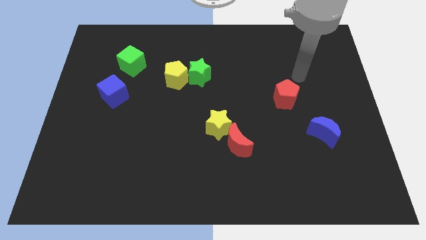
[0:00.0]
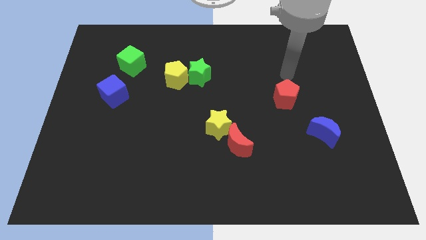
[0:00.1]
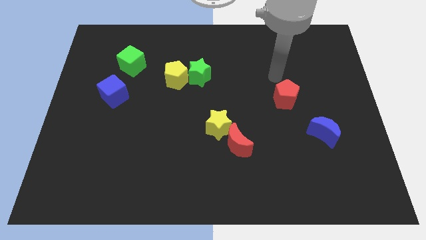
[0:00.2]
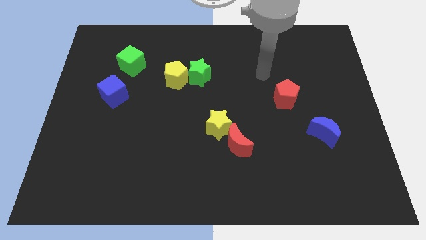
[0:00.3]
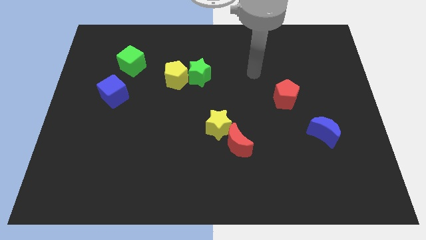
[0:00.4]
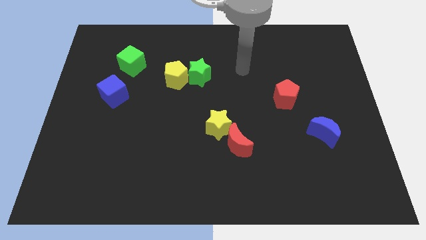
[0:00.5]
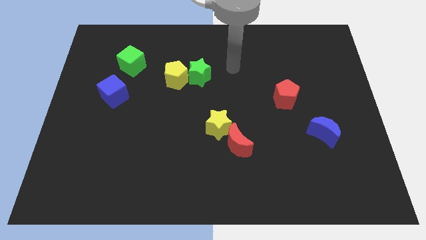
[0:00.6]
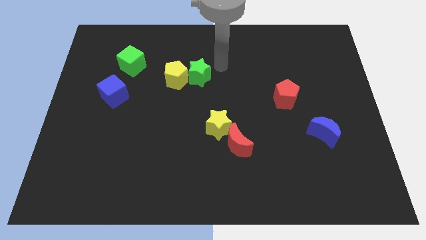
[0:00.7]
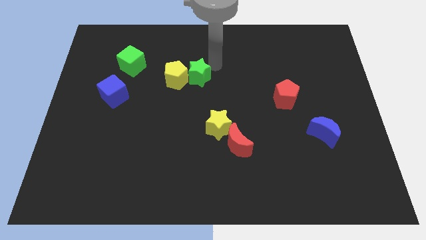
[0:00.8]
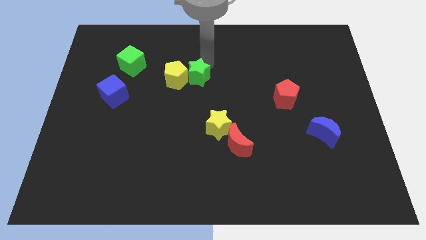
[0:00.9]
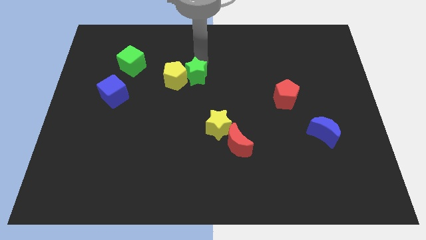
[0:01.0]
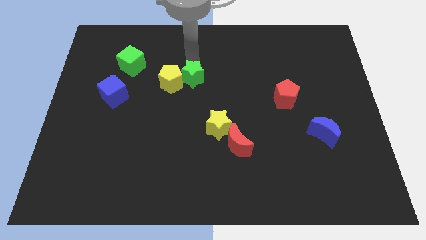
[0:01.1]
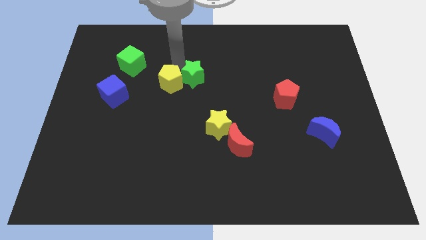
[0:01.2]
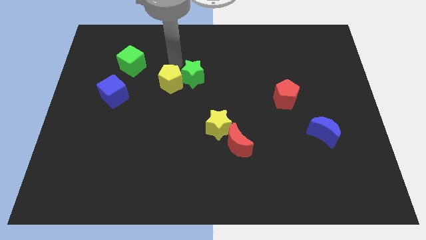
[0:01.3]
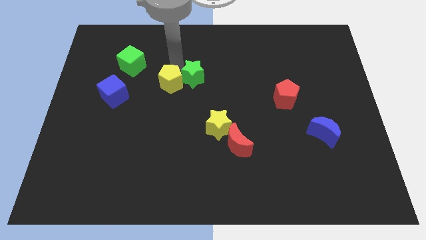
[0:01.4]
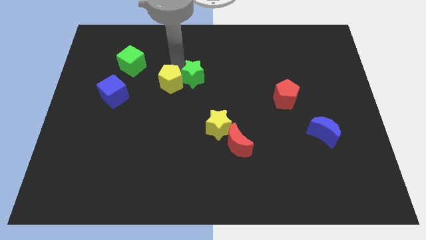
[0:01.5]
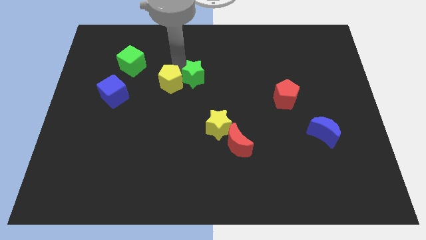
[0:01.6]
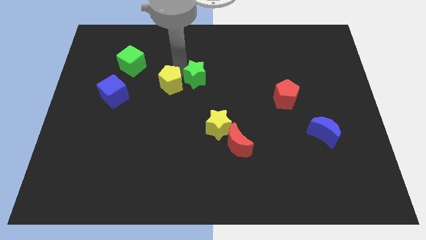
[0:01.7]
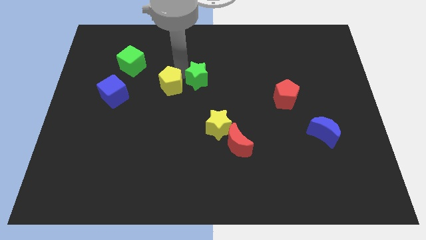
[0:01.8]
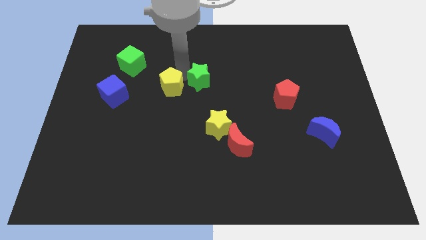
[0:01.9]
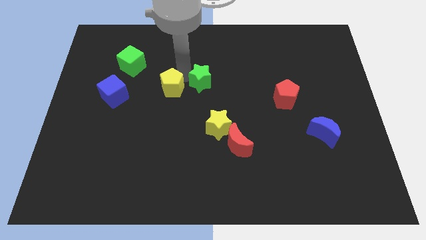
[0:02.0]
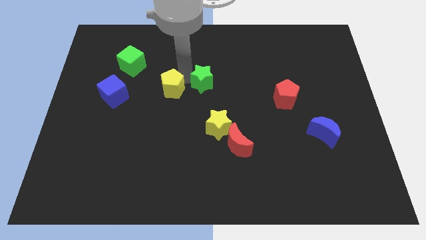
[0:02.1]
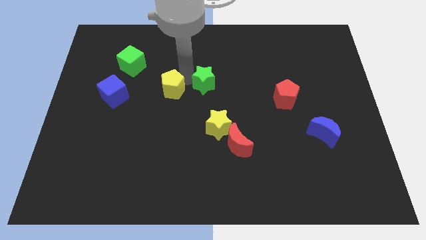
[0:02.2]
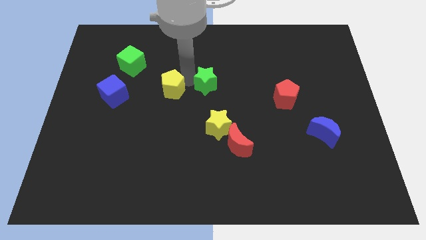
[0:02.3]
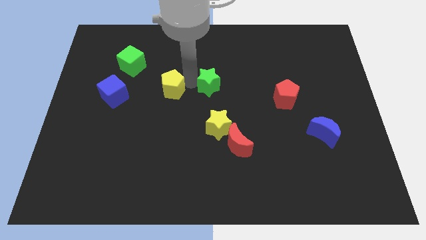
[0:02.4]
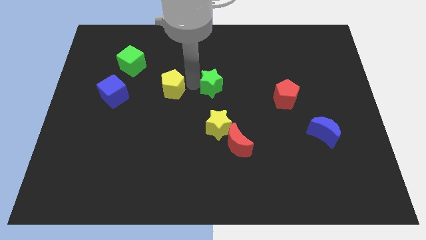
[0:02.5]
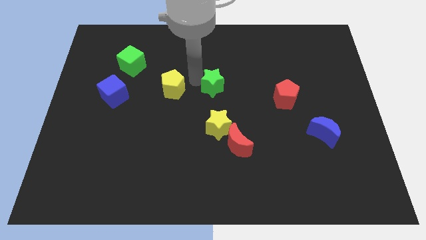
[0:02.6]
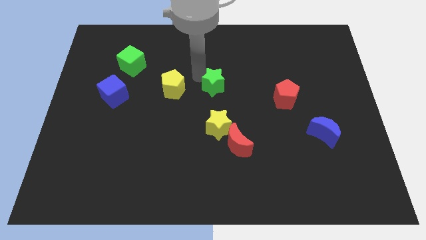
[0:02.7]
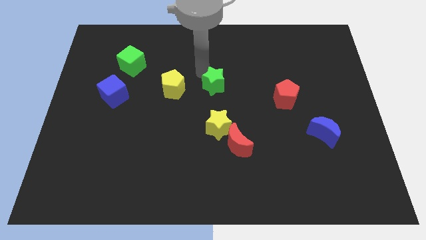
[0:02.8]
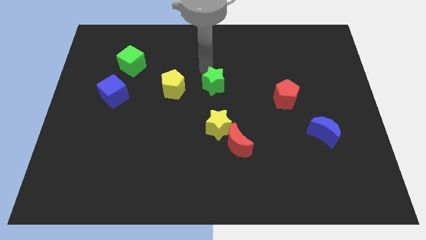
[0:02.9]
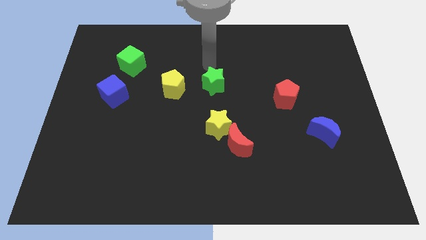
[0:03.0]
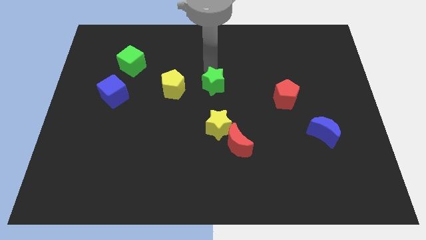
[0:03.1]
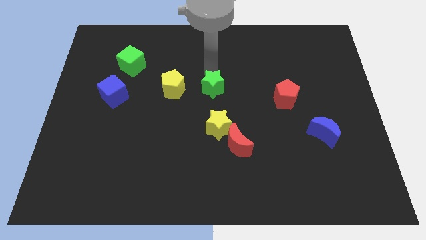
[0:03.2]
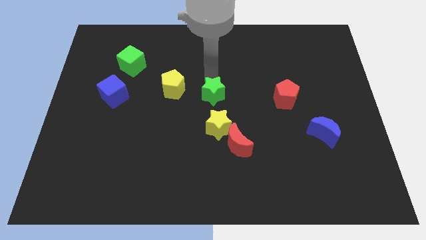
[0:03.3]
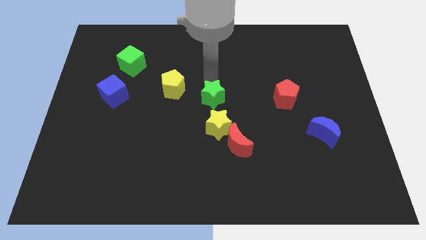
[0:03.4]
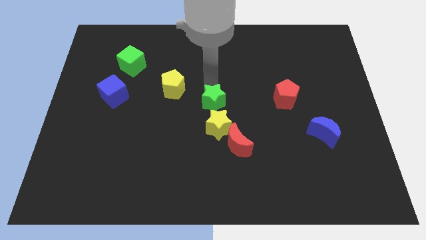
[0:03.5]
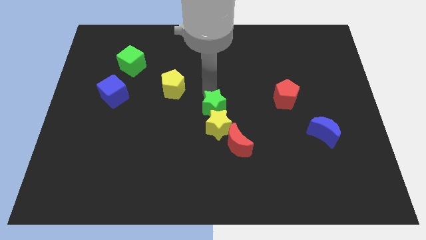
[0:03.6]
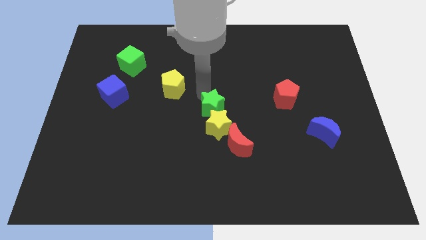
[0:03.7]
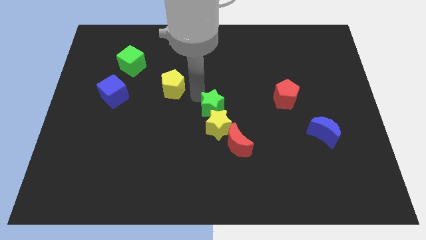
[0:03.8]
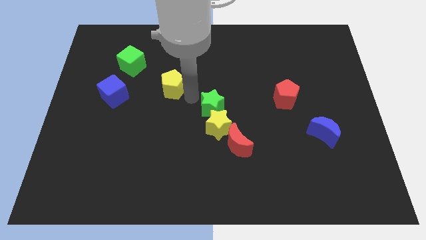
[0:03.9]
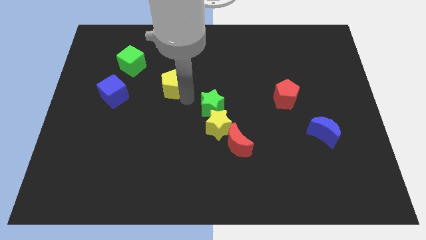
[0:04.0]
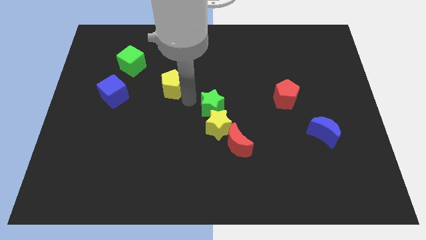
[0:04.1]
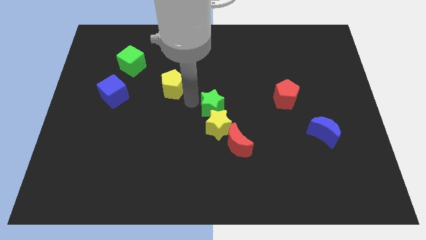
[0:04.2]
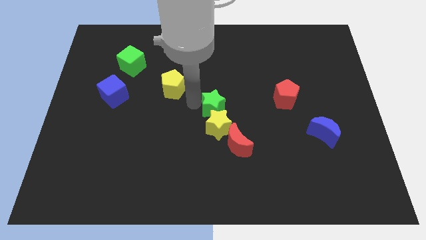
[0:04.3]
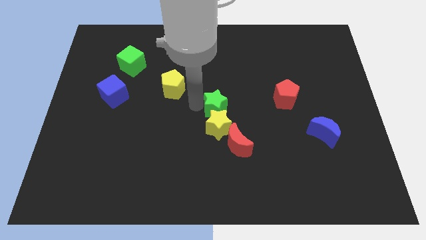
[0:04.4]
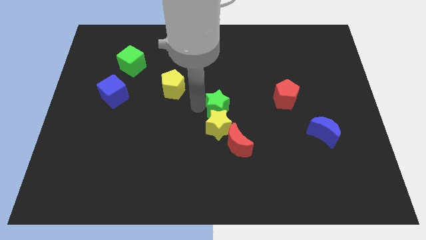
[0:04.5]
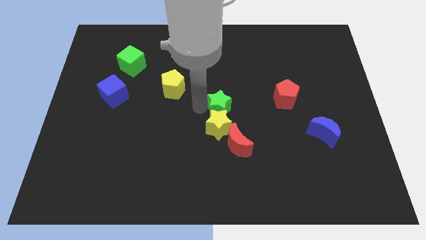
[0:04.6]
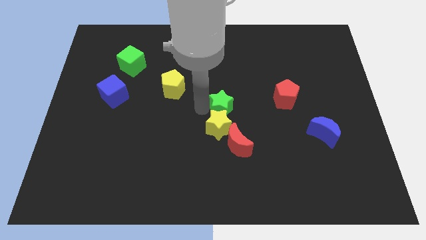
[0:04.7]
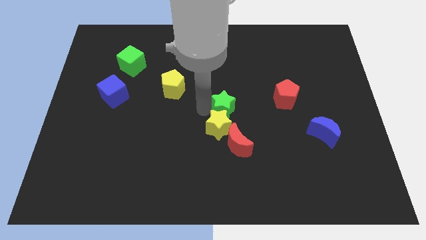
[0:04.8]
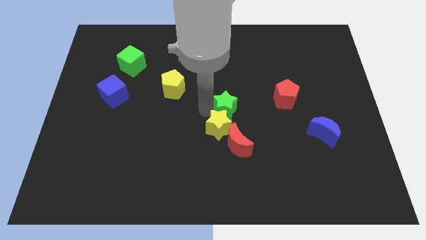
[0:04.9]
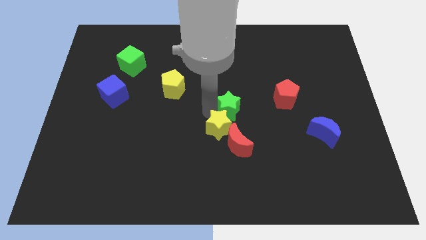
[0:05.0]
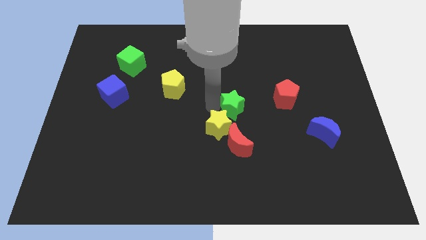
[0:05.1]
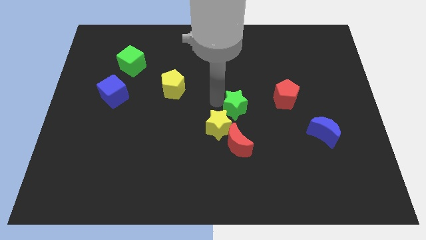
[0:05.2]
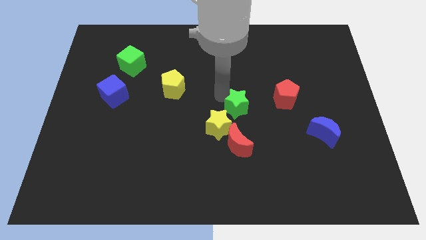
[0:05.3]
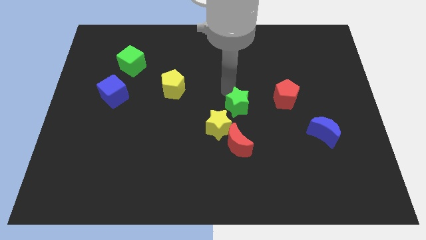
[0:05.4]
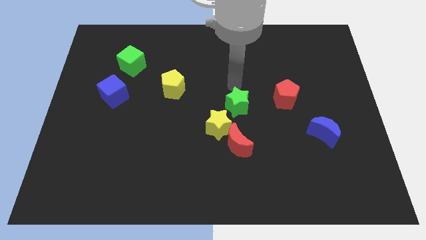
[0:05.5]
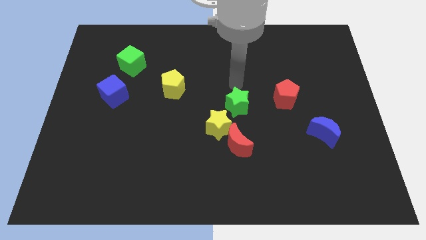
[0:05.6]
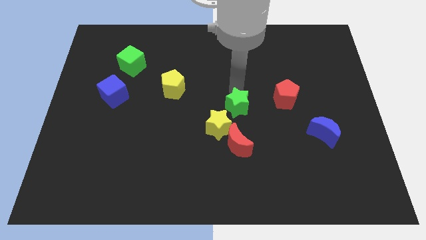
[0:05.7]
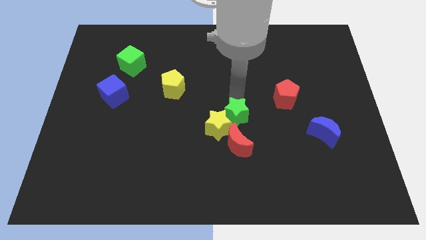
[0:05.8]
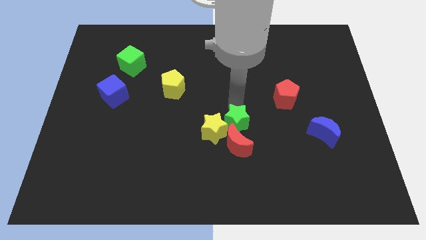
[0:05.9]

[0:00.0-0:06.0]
push the green star towards the red moon

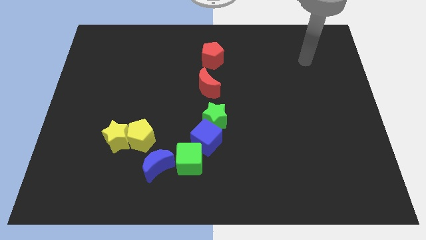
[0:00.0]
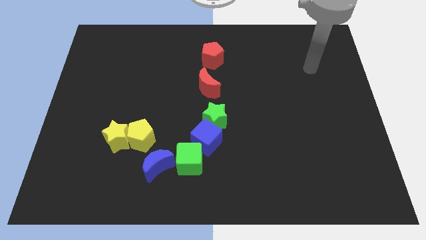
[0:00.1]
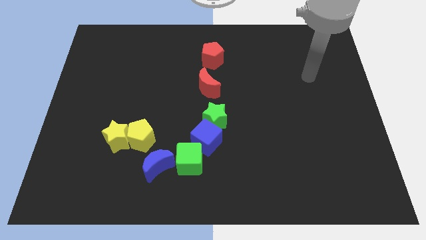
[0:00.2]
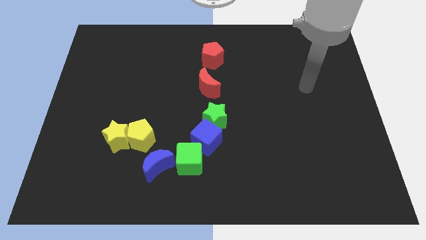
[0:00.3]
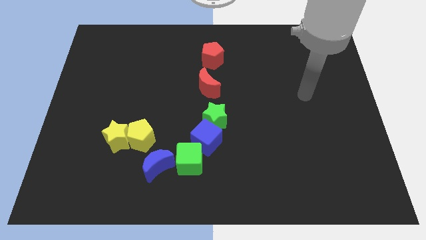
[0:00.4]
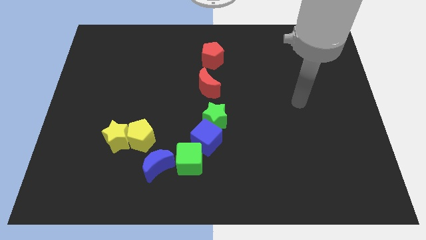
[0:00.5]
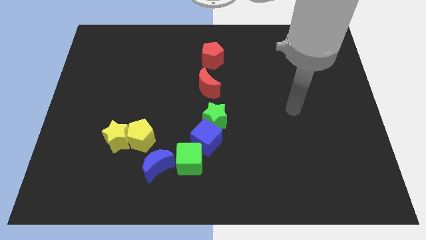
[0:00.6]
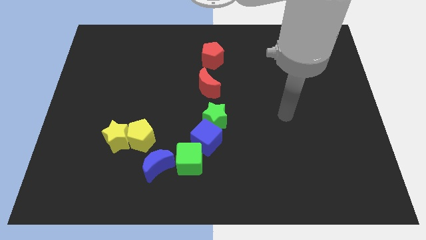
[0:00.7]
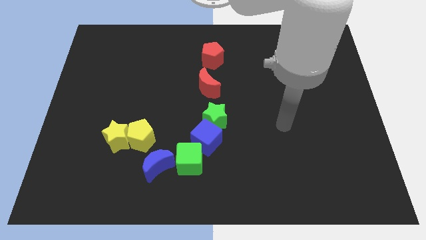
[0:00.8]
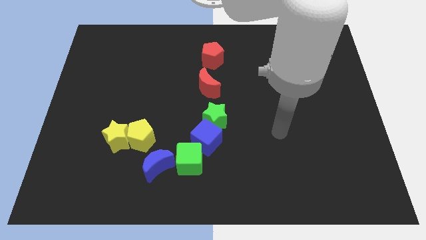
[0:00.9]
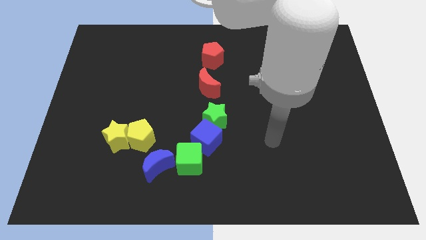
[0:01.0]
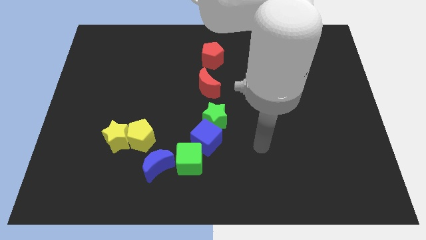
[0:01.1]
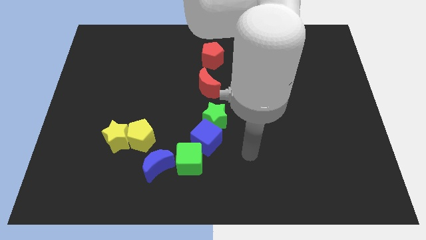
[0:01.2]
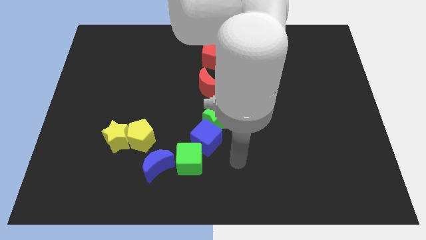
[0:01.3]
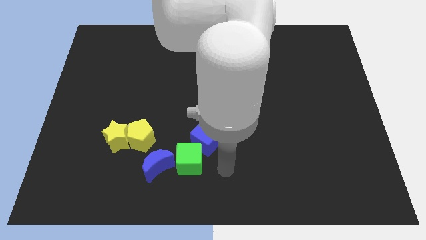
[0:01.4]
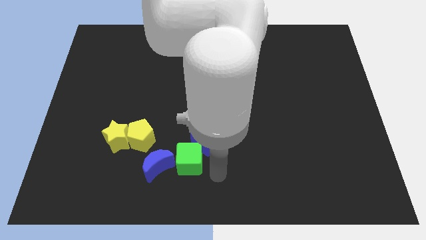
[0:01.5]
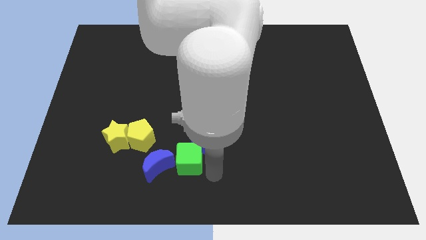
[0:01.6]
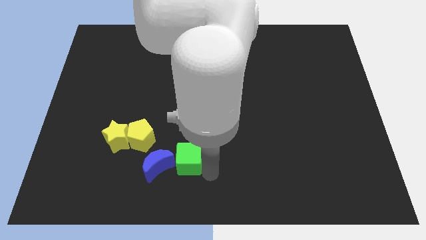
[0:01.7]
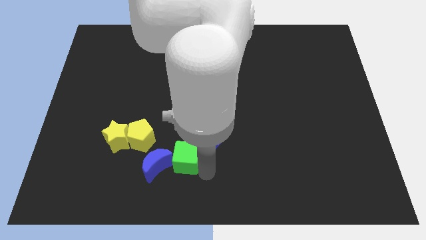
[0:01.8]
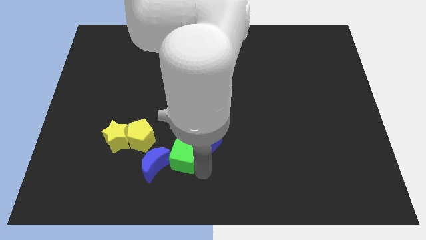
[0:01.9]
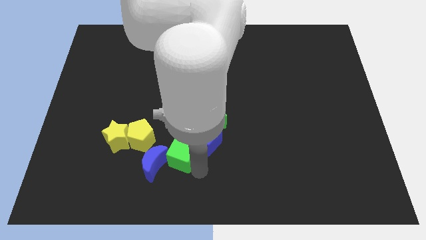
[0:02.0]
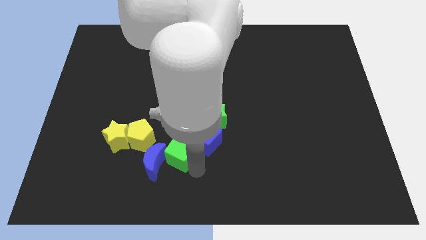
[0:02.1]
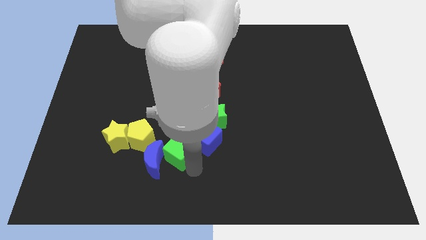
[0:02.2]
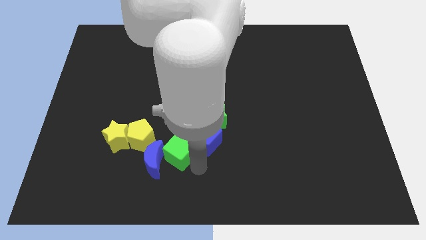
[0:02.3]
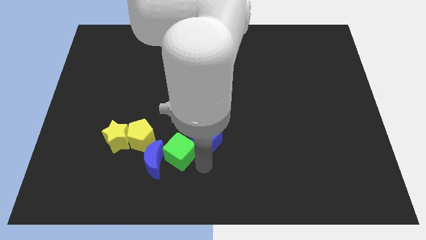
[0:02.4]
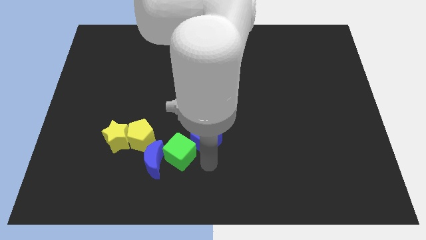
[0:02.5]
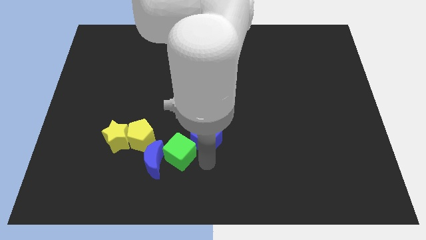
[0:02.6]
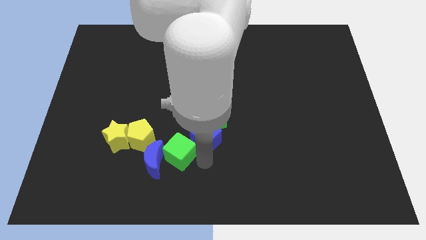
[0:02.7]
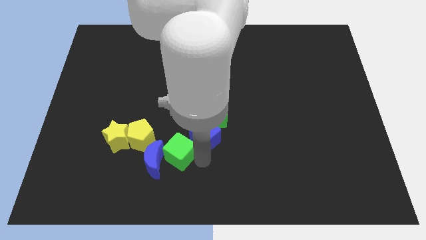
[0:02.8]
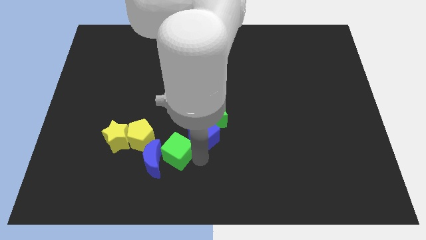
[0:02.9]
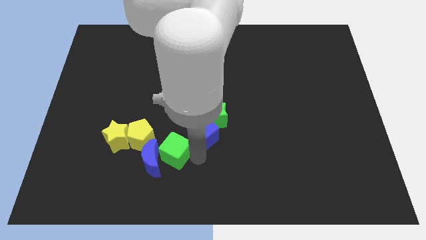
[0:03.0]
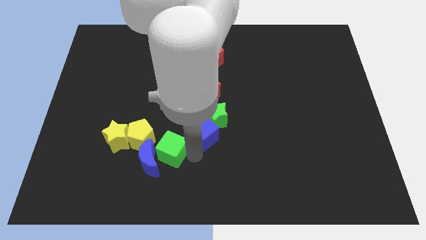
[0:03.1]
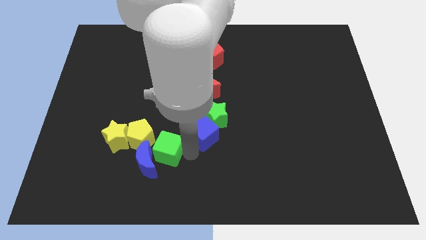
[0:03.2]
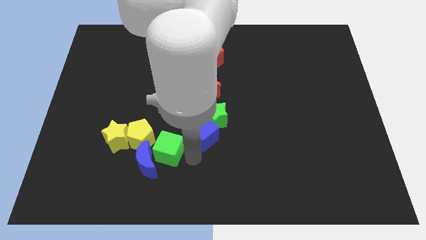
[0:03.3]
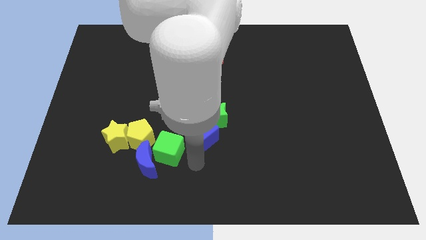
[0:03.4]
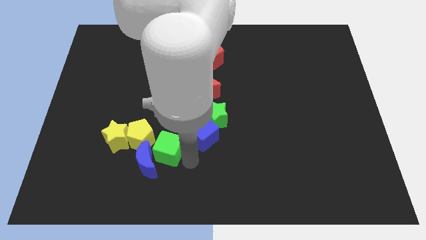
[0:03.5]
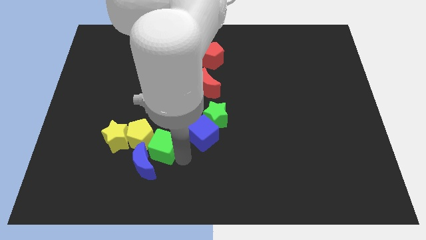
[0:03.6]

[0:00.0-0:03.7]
slide the green cube close to the yellow pentagon
